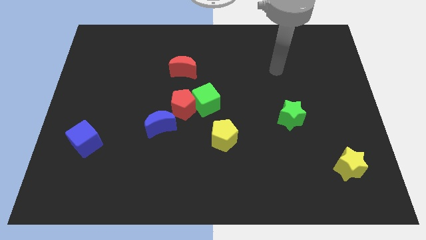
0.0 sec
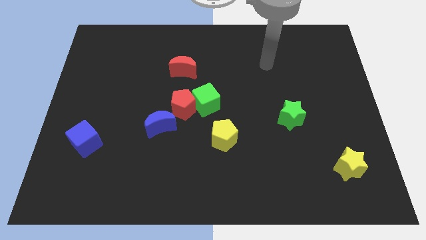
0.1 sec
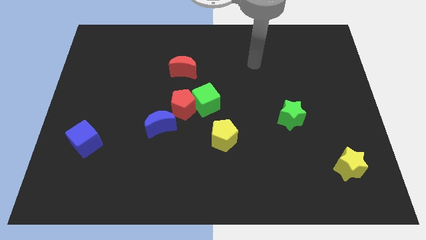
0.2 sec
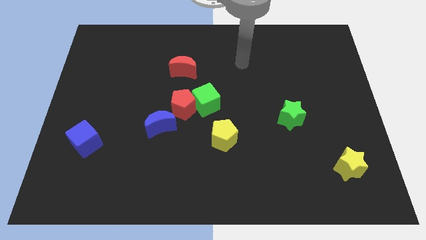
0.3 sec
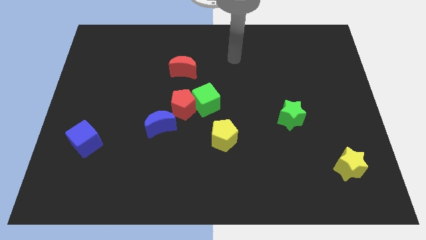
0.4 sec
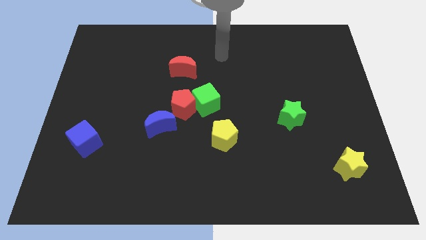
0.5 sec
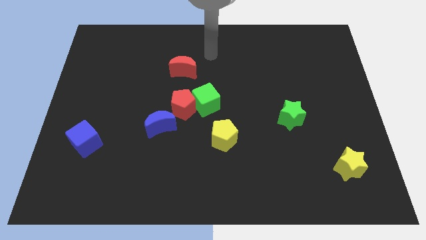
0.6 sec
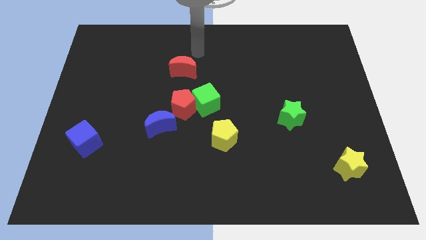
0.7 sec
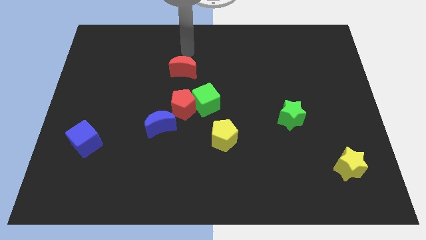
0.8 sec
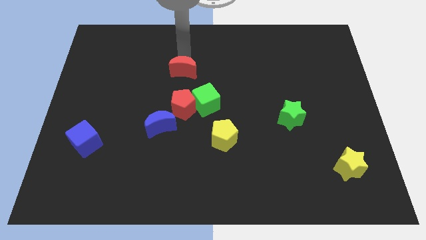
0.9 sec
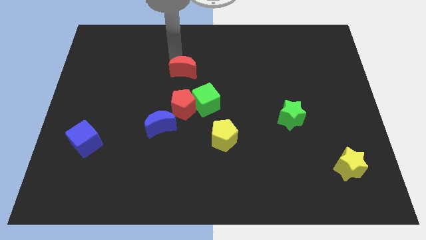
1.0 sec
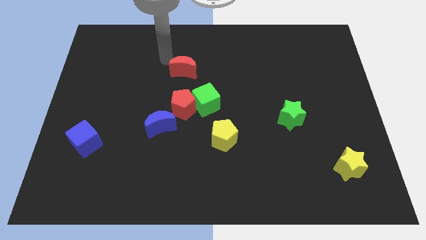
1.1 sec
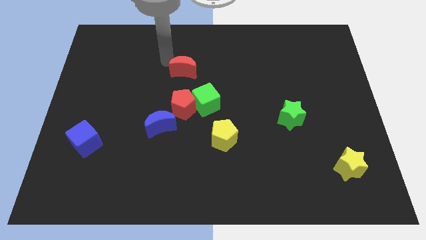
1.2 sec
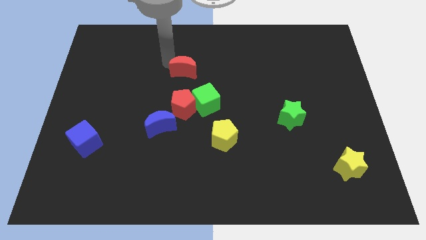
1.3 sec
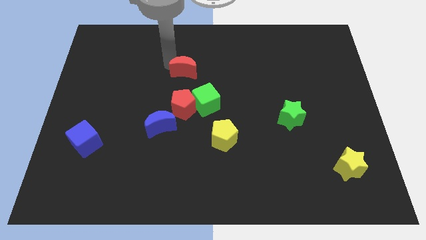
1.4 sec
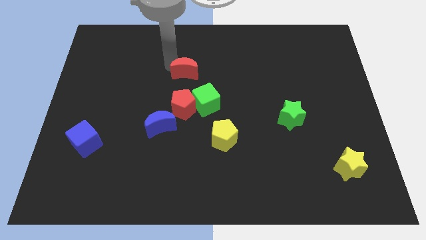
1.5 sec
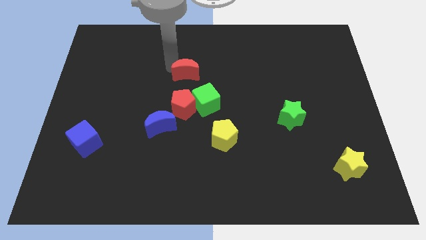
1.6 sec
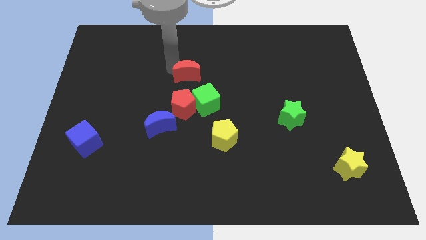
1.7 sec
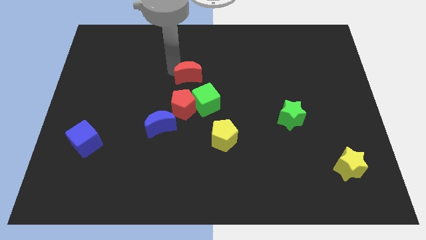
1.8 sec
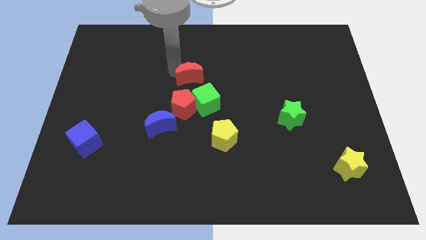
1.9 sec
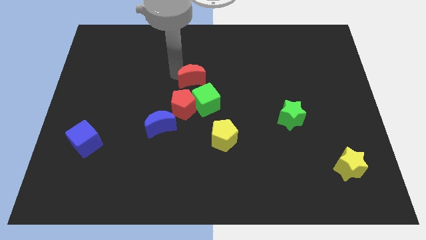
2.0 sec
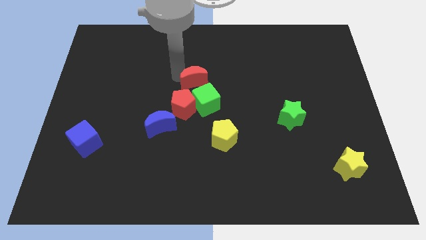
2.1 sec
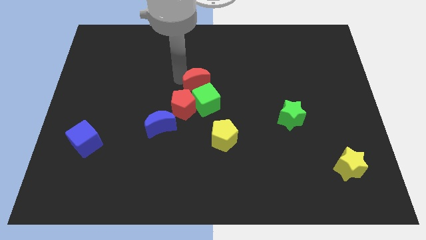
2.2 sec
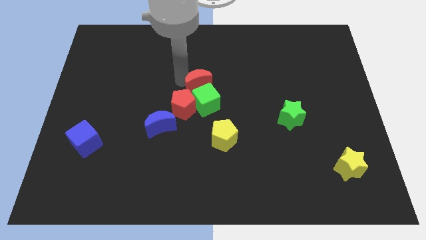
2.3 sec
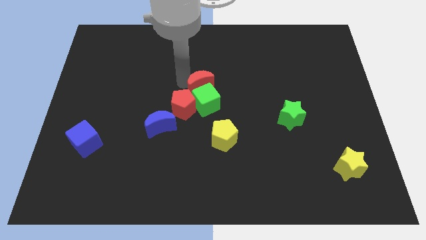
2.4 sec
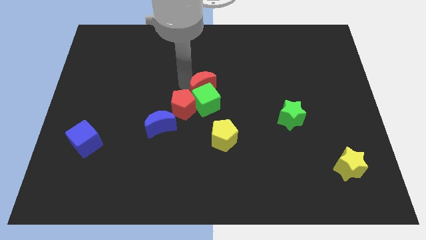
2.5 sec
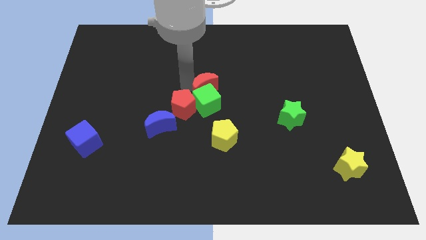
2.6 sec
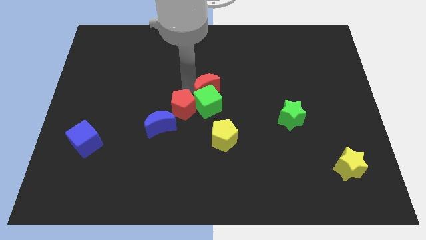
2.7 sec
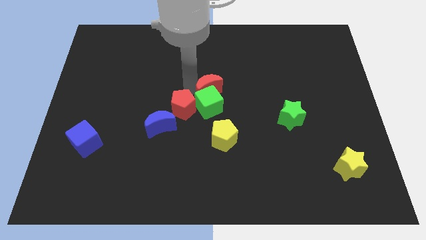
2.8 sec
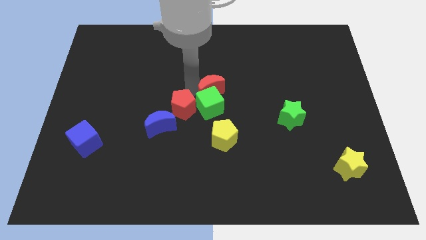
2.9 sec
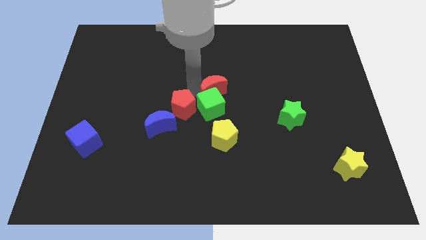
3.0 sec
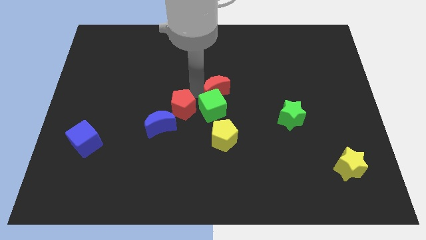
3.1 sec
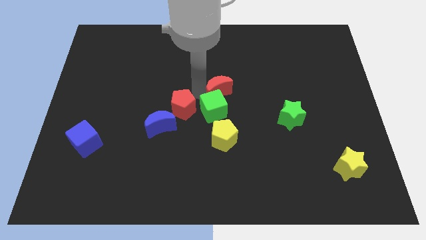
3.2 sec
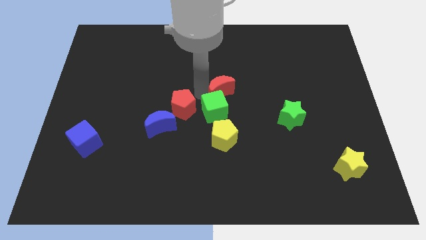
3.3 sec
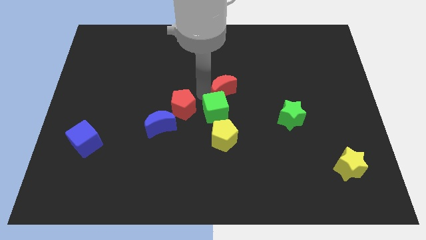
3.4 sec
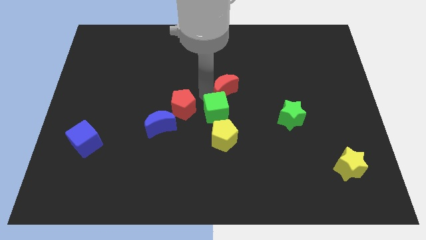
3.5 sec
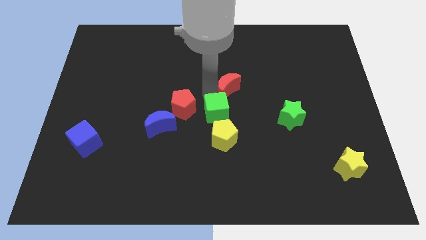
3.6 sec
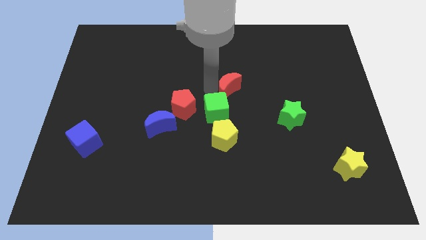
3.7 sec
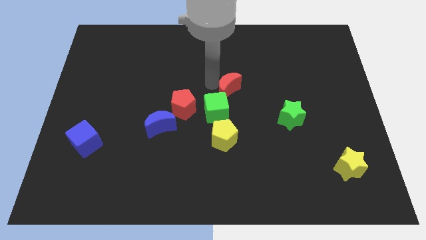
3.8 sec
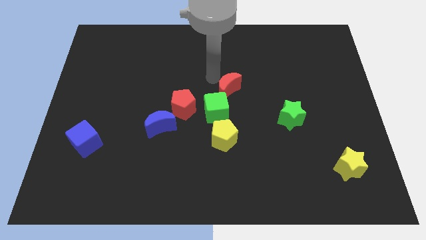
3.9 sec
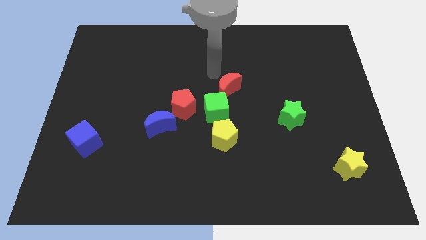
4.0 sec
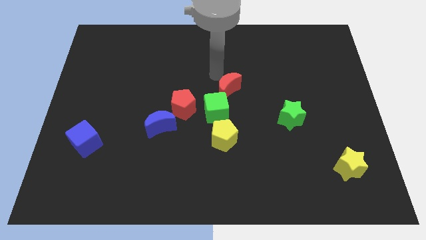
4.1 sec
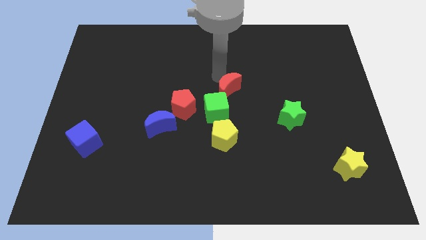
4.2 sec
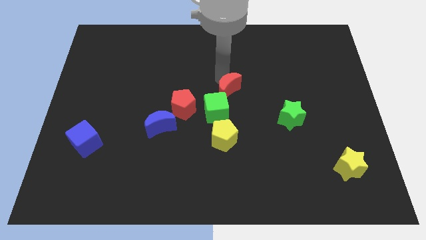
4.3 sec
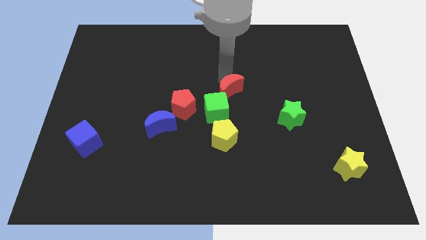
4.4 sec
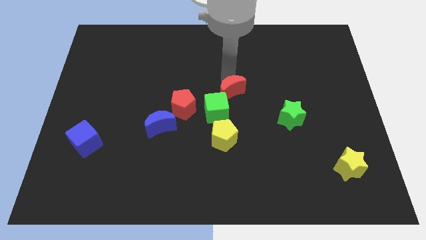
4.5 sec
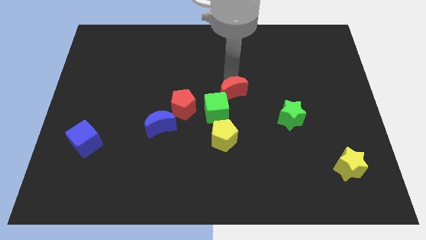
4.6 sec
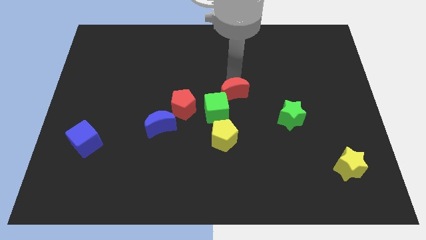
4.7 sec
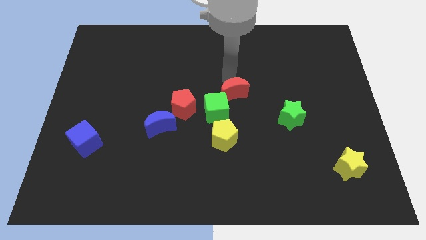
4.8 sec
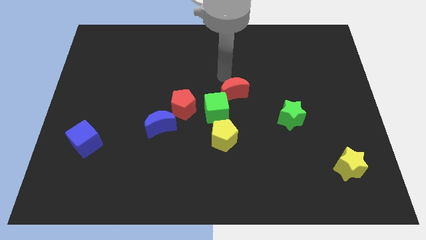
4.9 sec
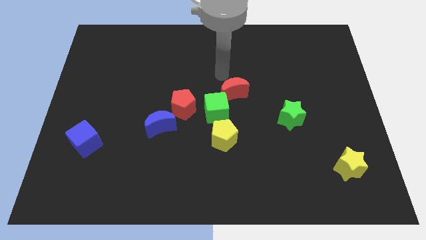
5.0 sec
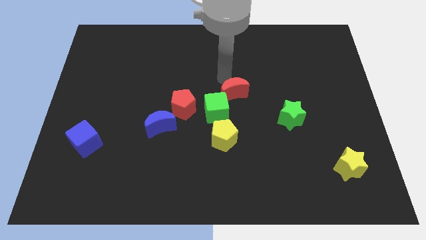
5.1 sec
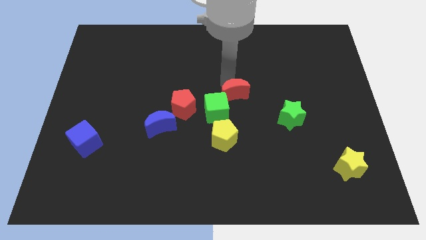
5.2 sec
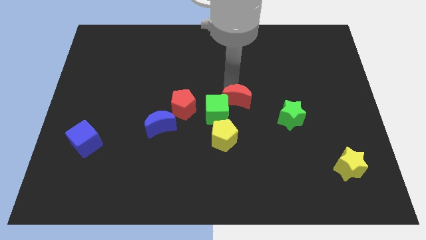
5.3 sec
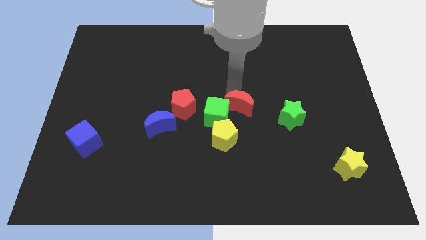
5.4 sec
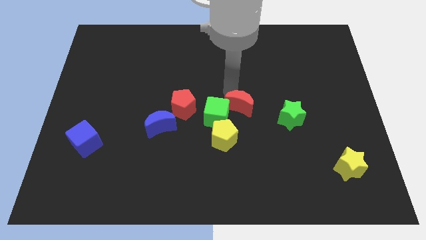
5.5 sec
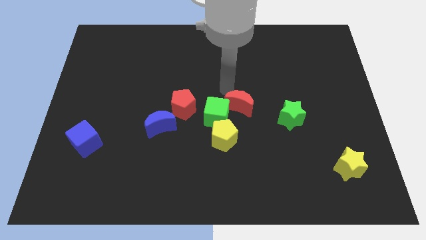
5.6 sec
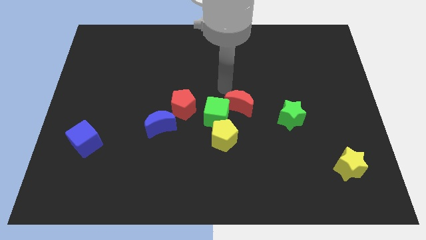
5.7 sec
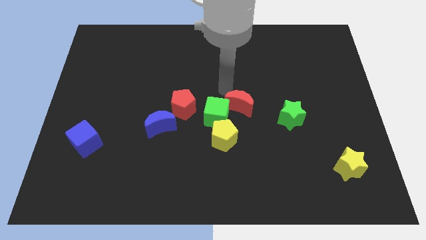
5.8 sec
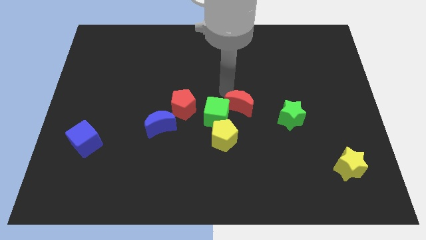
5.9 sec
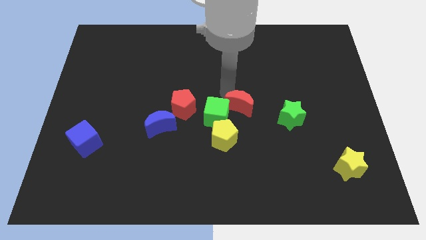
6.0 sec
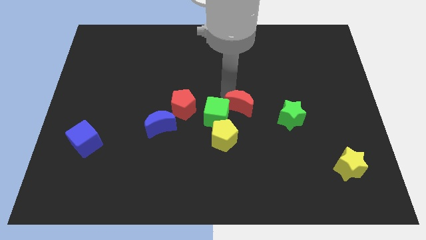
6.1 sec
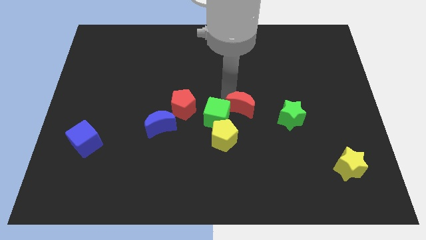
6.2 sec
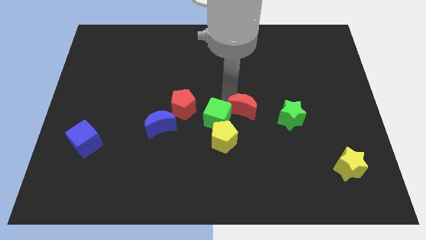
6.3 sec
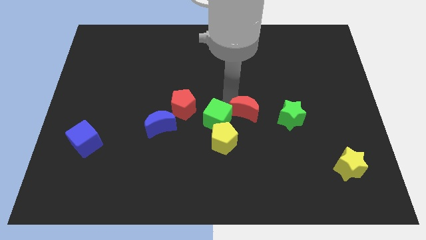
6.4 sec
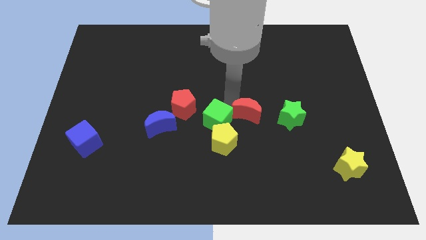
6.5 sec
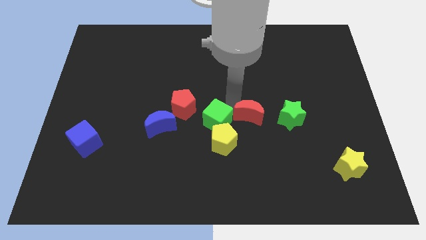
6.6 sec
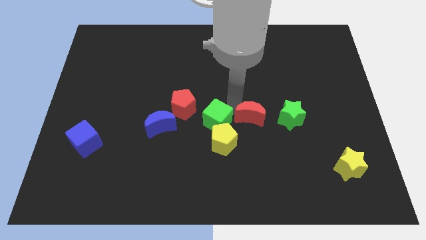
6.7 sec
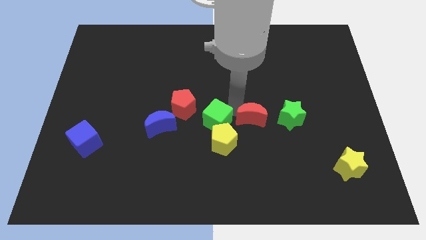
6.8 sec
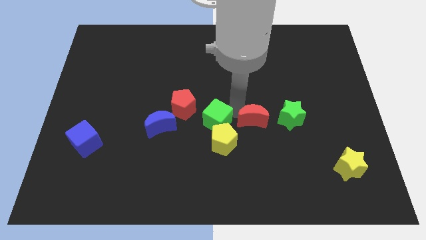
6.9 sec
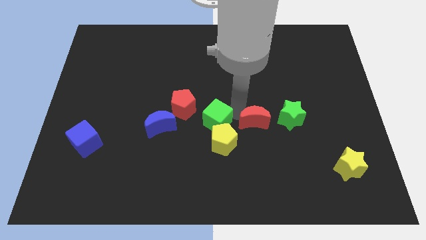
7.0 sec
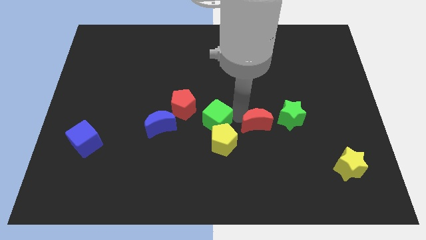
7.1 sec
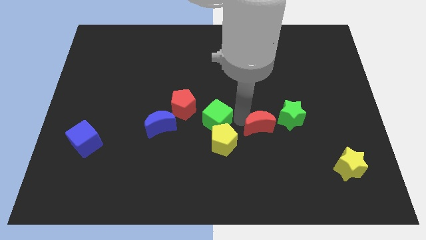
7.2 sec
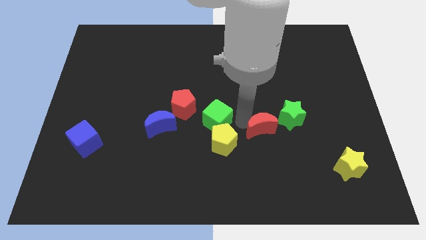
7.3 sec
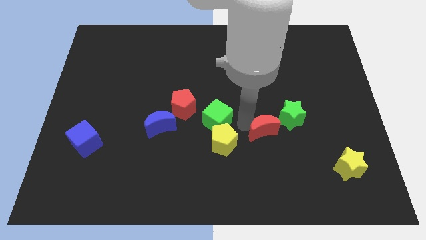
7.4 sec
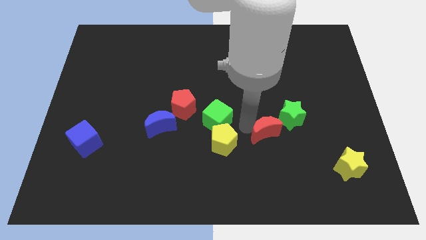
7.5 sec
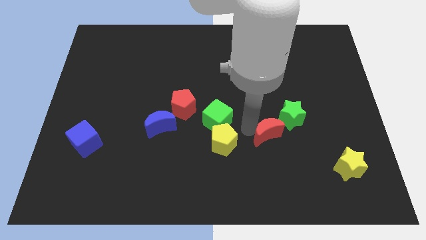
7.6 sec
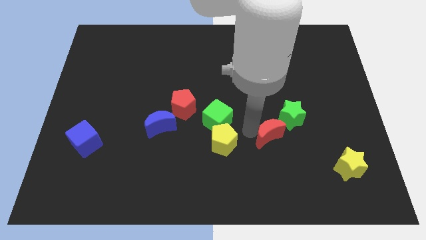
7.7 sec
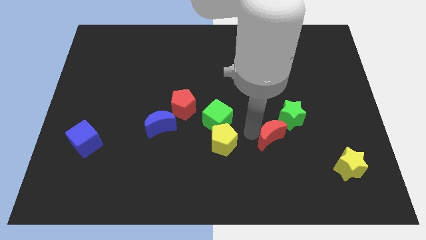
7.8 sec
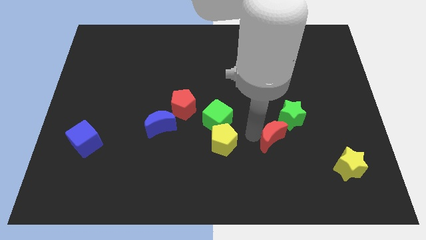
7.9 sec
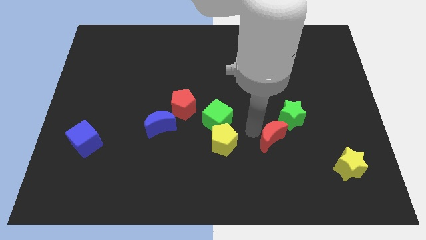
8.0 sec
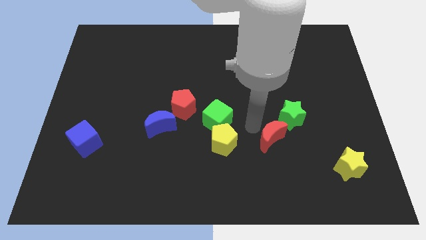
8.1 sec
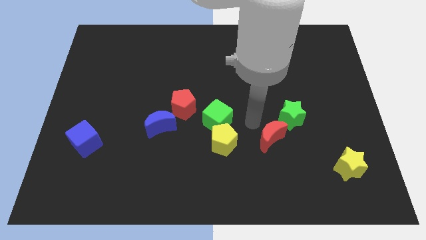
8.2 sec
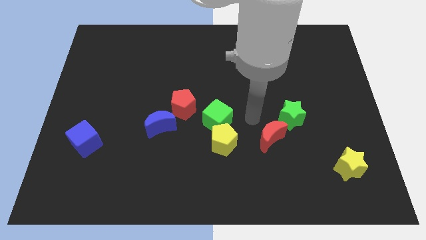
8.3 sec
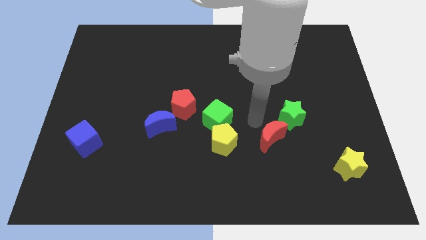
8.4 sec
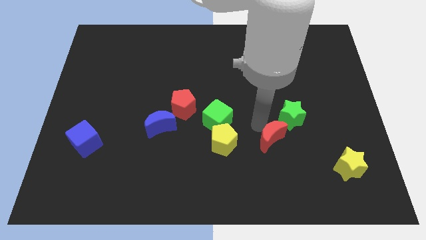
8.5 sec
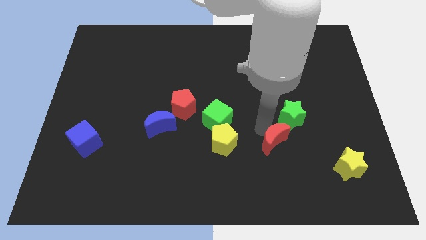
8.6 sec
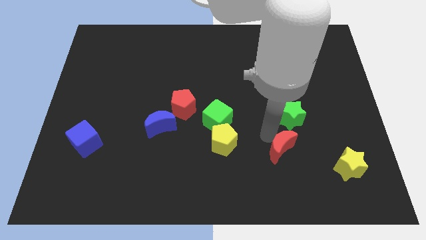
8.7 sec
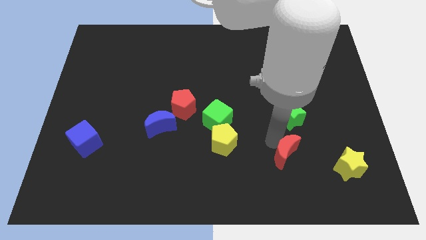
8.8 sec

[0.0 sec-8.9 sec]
move the red moon just left of the yellow star
